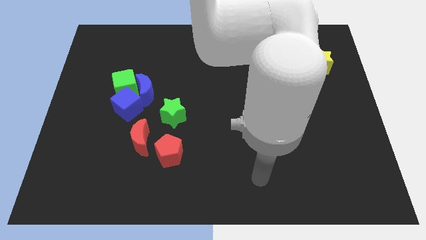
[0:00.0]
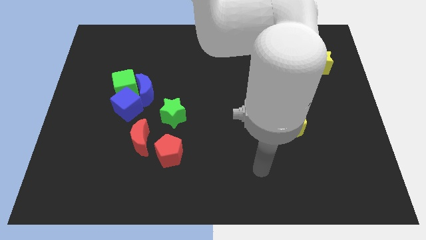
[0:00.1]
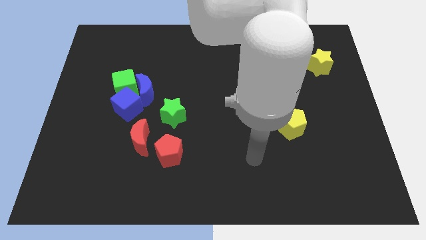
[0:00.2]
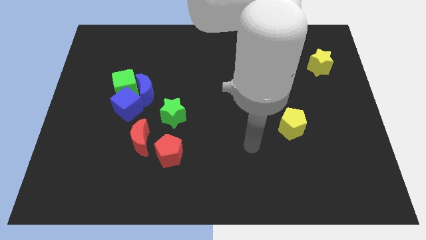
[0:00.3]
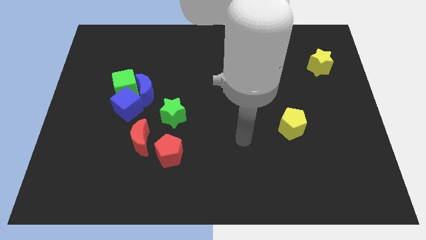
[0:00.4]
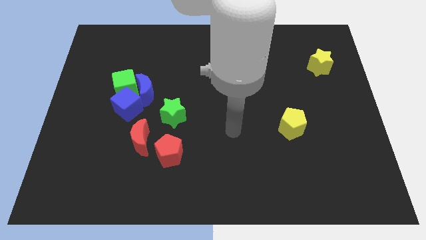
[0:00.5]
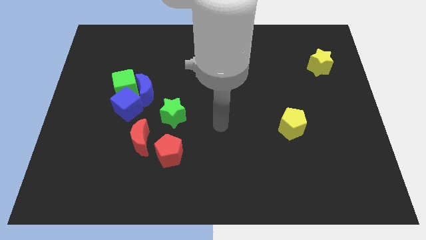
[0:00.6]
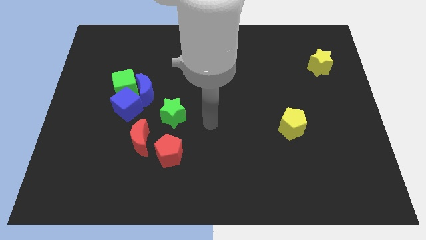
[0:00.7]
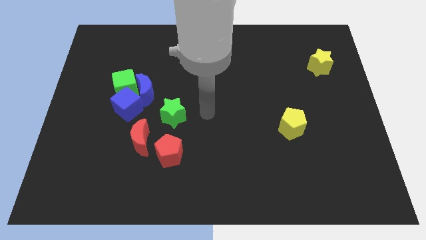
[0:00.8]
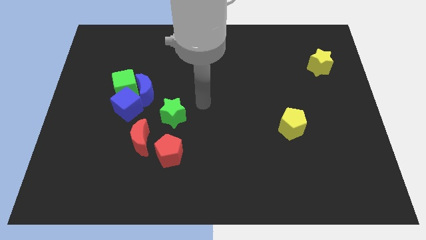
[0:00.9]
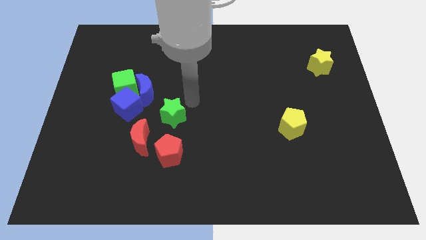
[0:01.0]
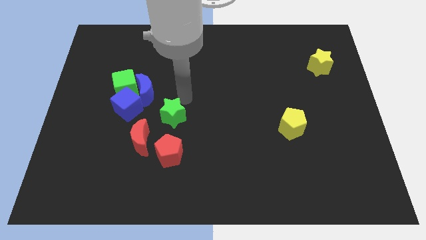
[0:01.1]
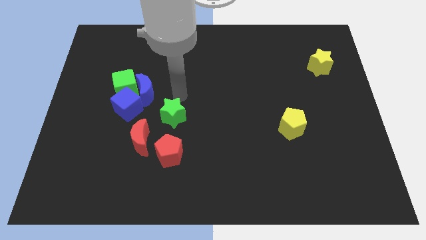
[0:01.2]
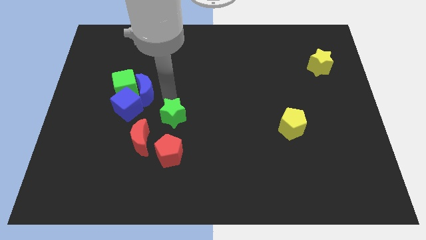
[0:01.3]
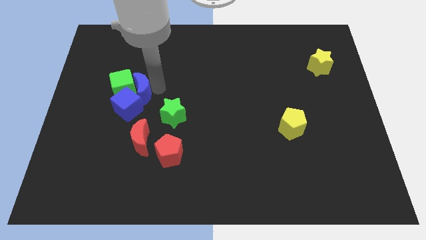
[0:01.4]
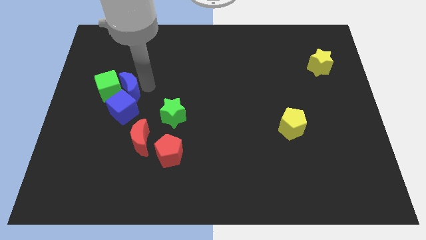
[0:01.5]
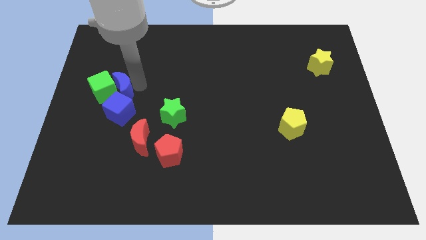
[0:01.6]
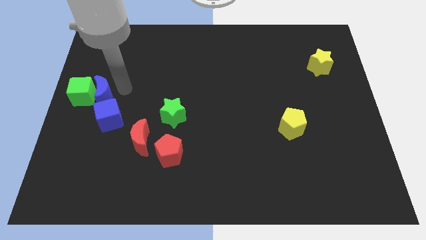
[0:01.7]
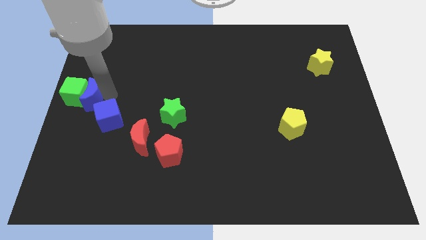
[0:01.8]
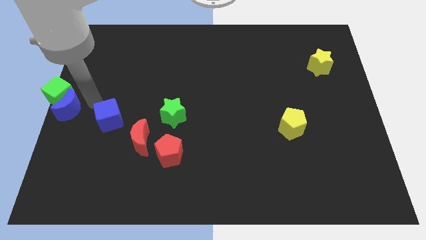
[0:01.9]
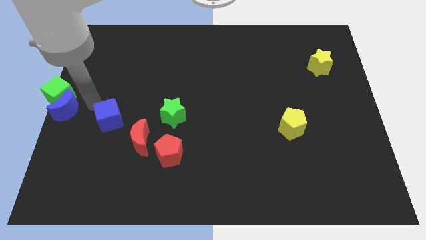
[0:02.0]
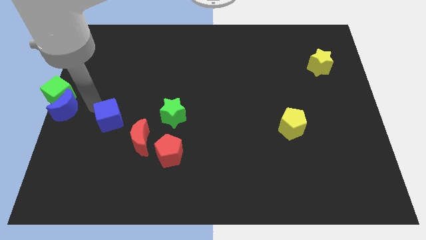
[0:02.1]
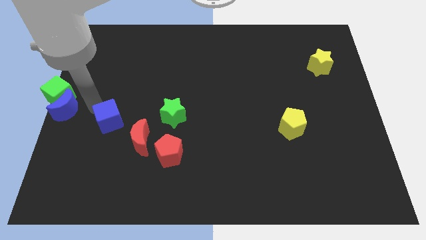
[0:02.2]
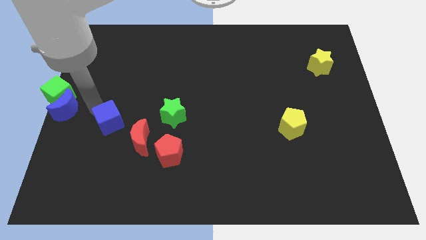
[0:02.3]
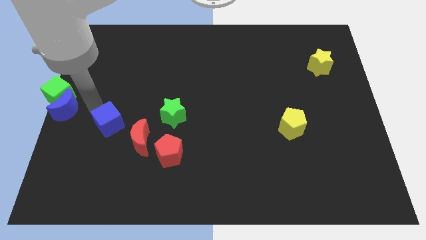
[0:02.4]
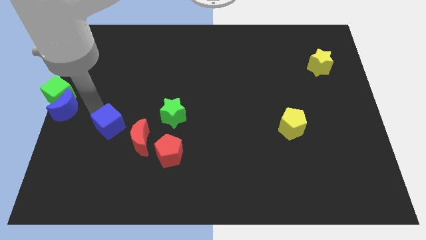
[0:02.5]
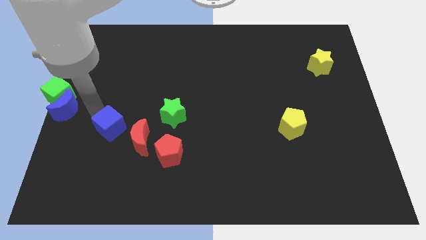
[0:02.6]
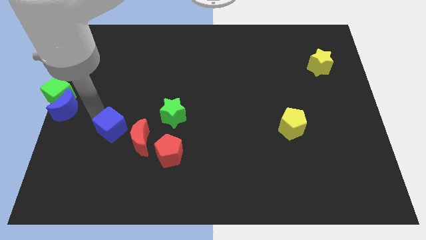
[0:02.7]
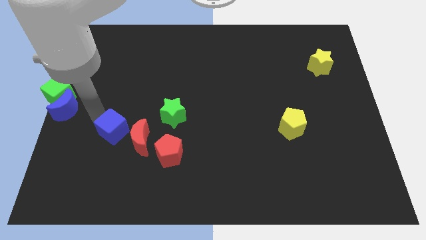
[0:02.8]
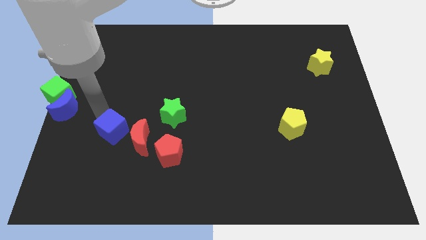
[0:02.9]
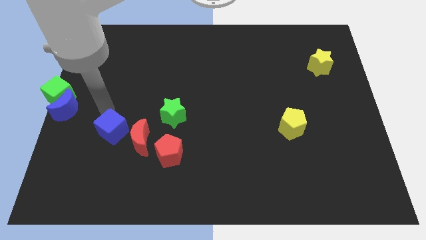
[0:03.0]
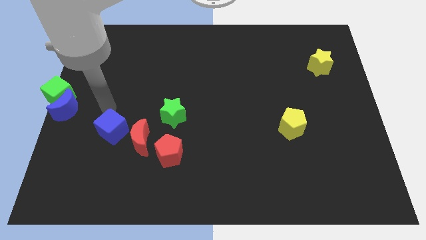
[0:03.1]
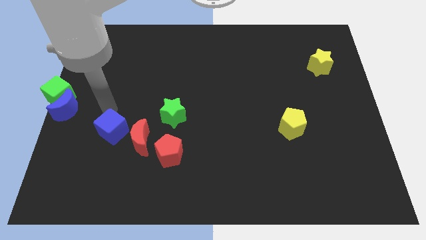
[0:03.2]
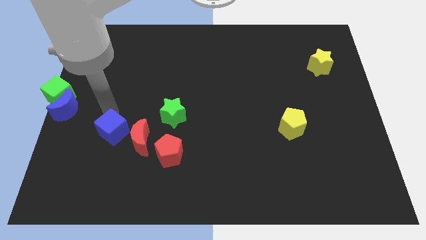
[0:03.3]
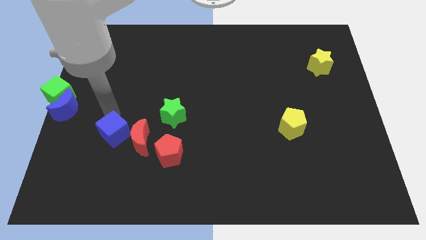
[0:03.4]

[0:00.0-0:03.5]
move the blue cube downwards a bit

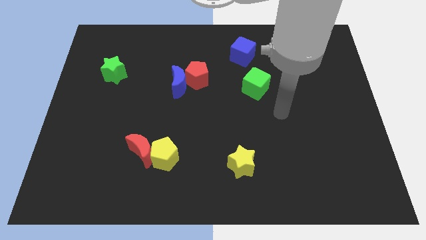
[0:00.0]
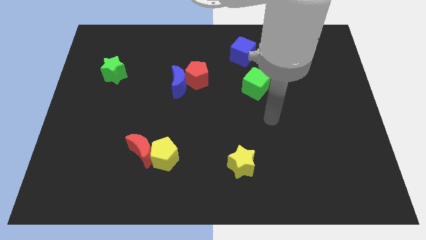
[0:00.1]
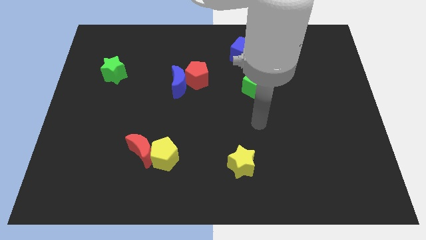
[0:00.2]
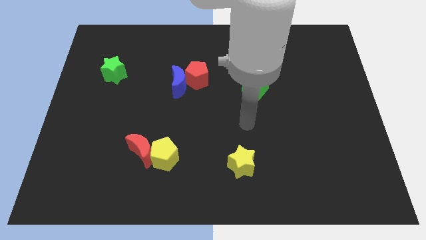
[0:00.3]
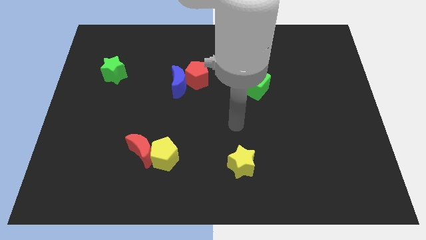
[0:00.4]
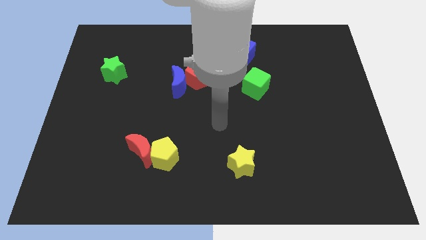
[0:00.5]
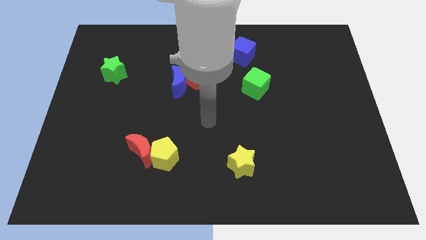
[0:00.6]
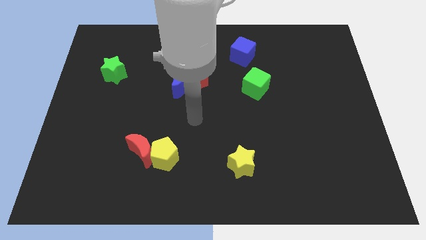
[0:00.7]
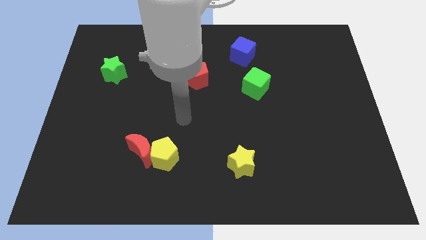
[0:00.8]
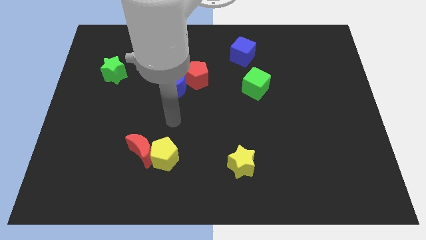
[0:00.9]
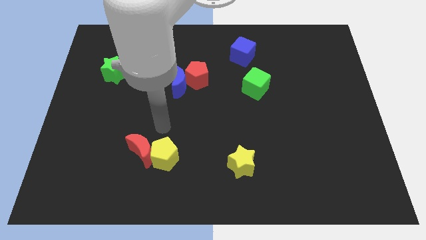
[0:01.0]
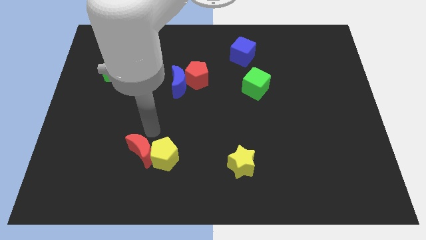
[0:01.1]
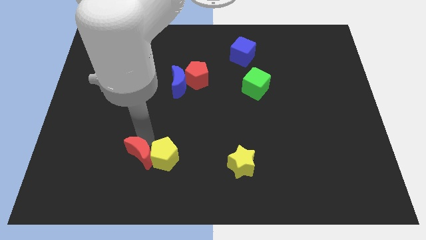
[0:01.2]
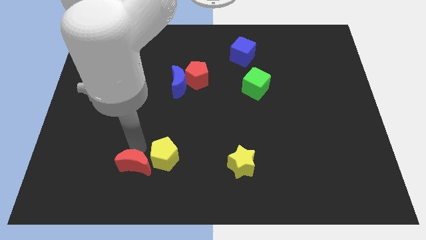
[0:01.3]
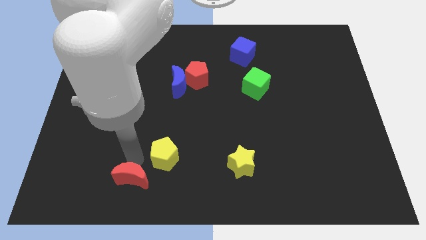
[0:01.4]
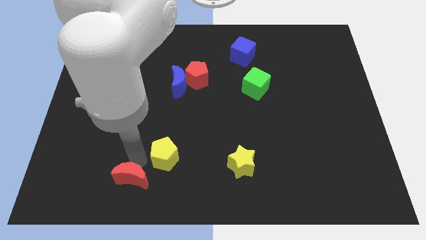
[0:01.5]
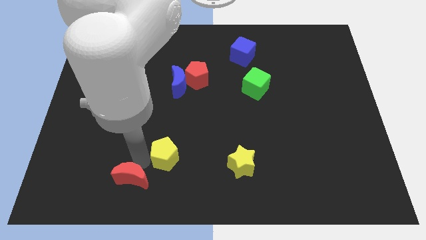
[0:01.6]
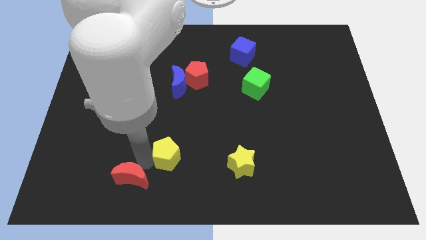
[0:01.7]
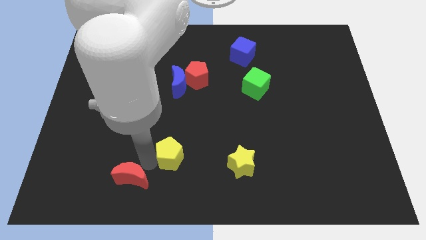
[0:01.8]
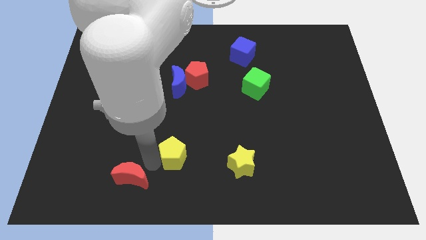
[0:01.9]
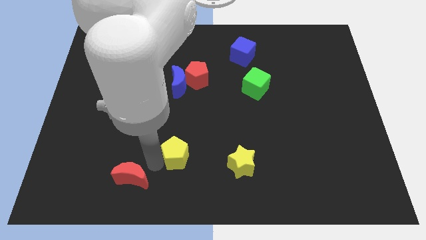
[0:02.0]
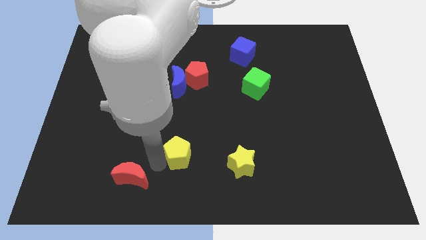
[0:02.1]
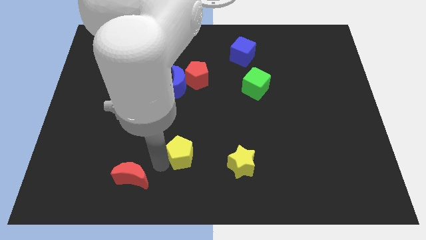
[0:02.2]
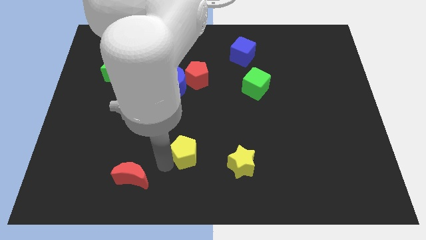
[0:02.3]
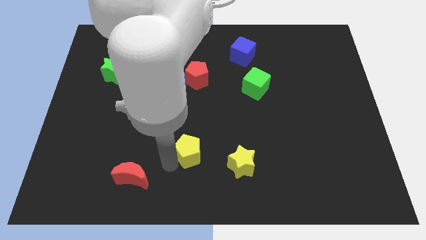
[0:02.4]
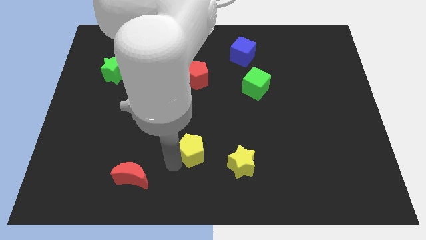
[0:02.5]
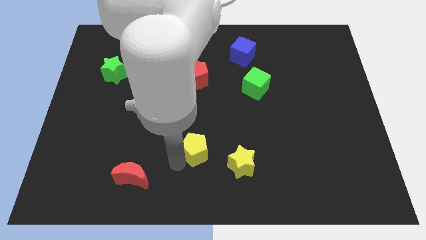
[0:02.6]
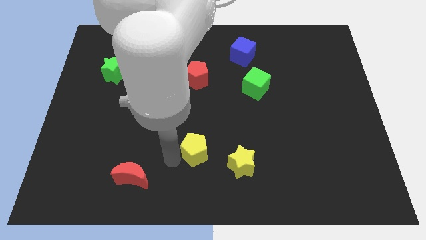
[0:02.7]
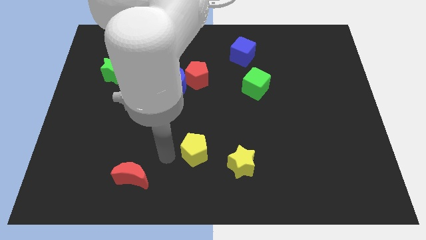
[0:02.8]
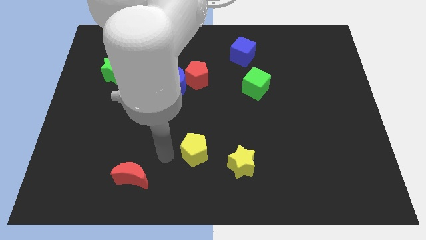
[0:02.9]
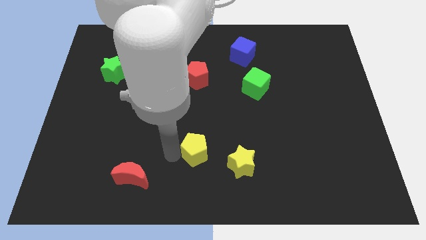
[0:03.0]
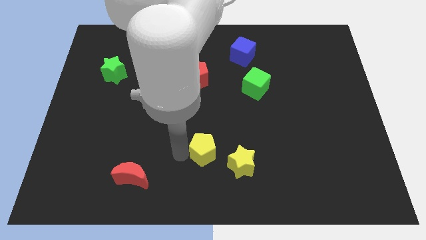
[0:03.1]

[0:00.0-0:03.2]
push the yellow pentagon a little bit to the right

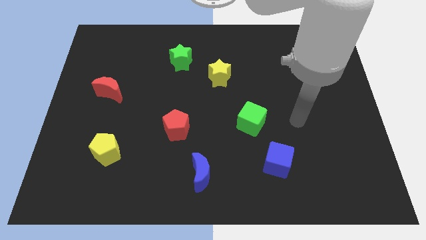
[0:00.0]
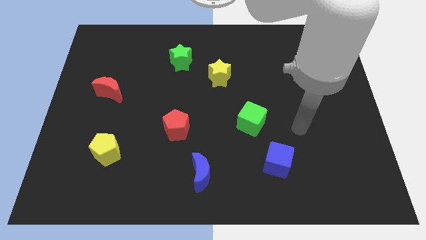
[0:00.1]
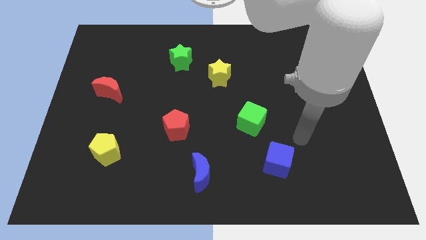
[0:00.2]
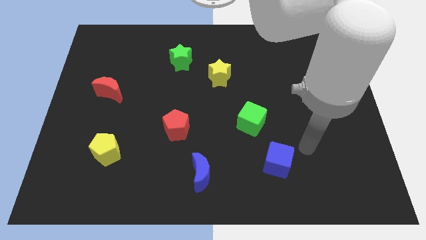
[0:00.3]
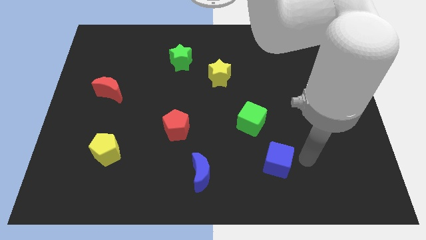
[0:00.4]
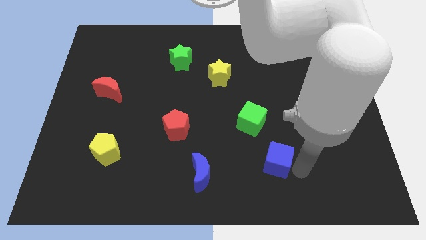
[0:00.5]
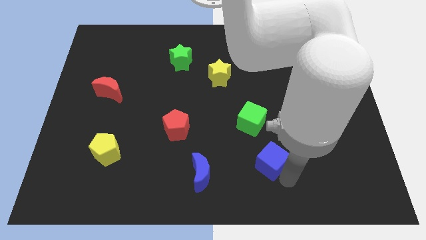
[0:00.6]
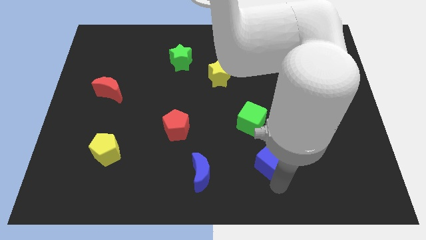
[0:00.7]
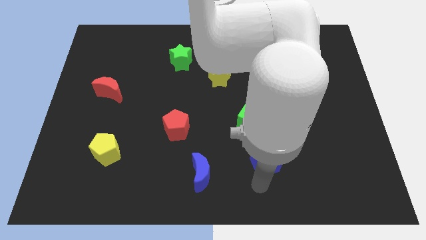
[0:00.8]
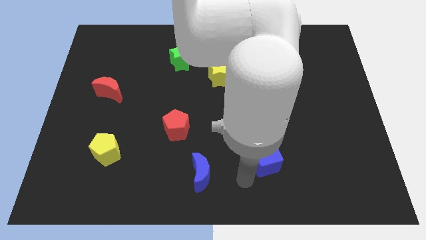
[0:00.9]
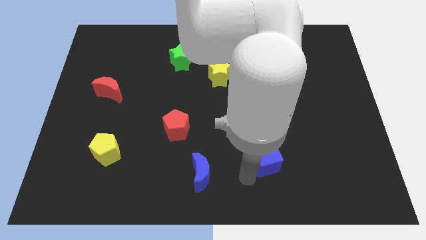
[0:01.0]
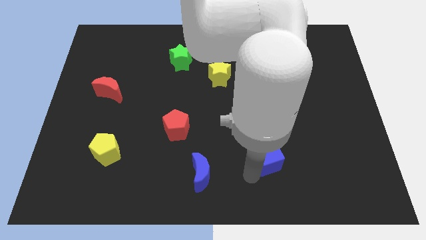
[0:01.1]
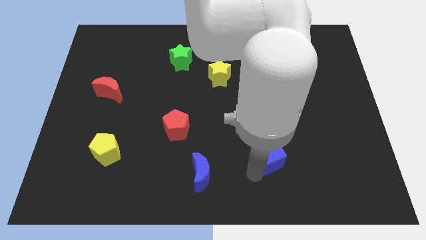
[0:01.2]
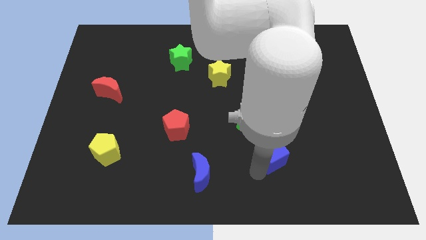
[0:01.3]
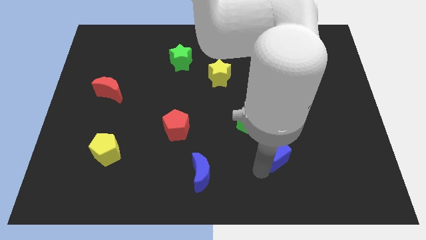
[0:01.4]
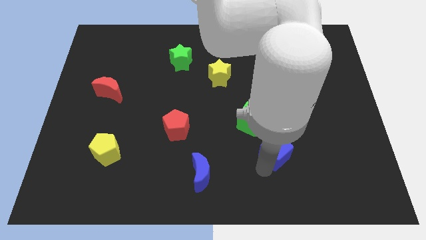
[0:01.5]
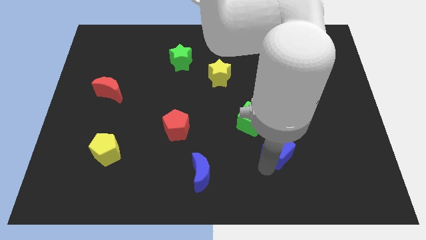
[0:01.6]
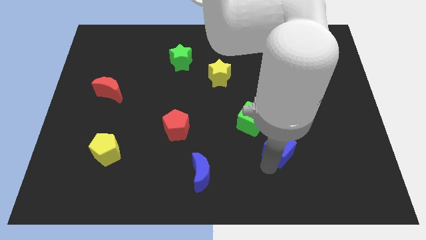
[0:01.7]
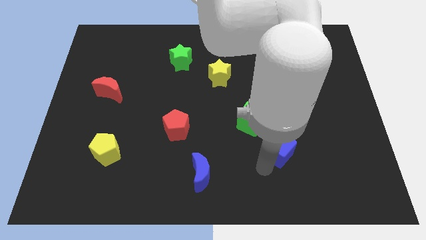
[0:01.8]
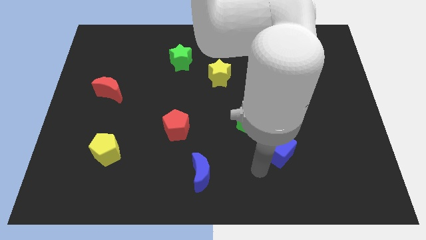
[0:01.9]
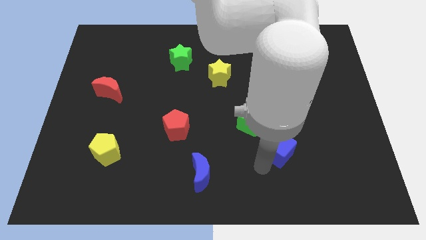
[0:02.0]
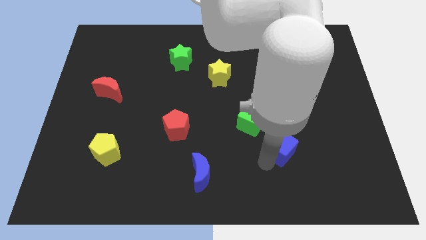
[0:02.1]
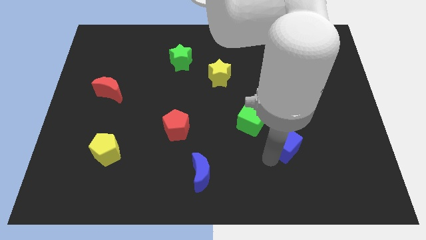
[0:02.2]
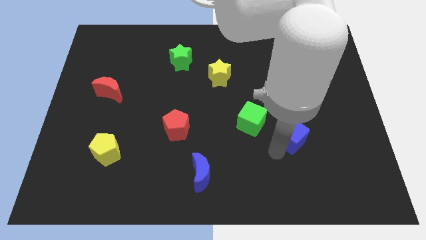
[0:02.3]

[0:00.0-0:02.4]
push the blue cube upwards and then right a bit
